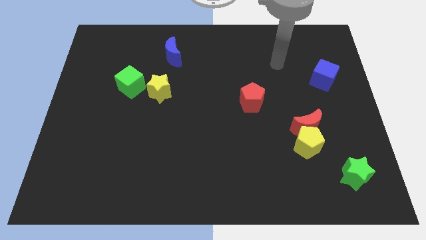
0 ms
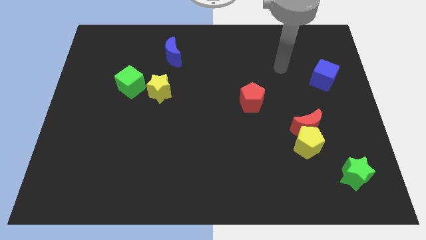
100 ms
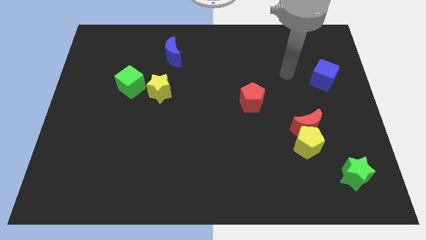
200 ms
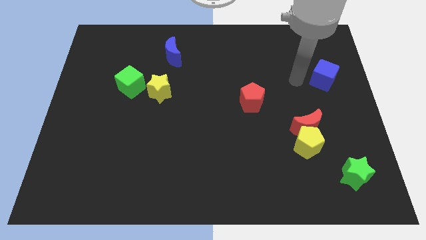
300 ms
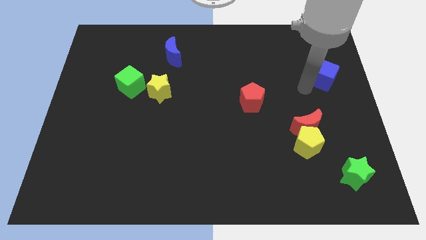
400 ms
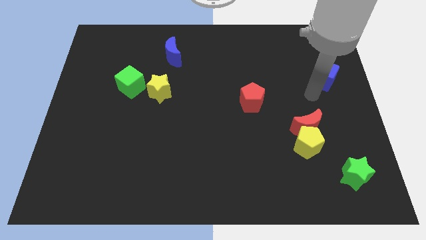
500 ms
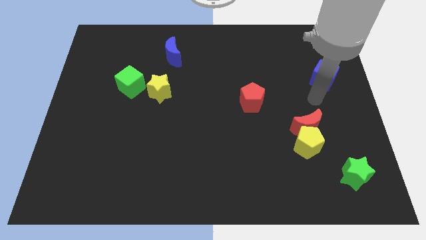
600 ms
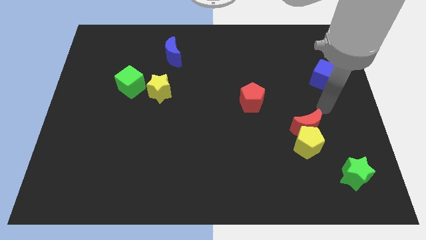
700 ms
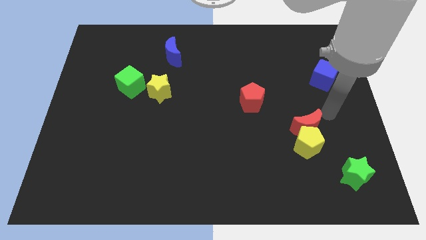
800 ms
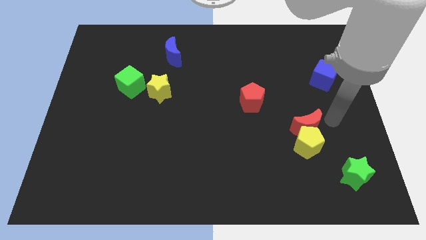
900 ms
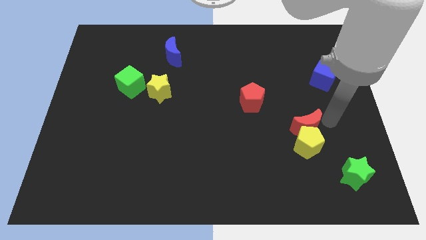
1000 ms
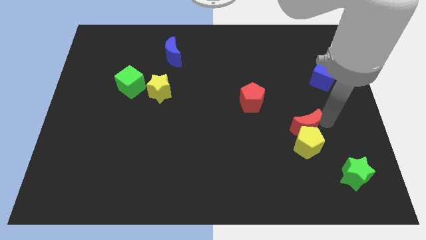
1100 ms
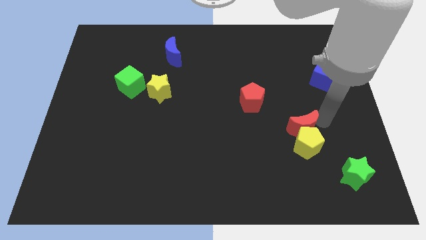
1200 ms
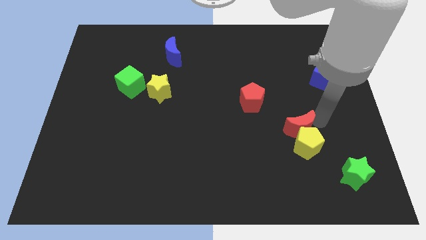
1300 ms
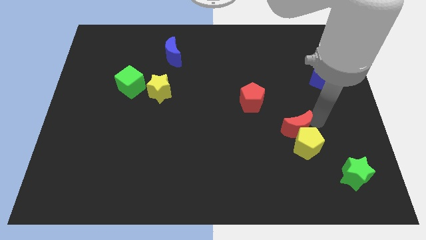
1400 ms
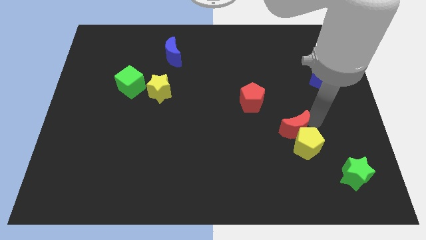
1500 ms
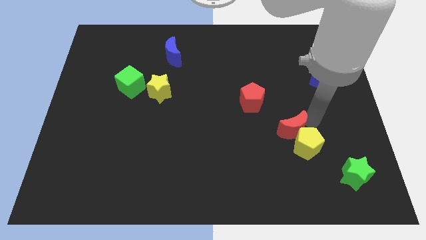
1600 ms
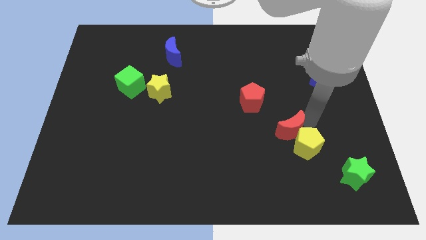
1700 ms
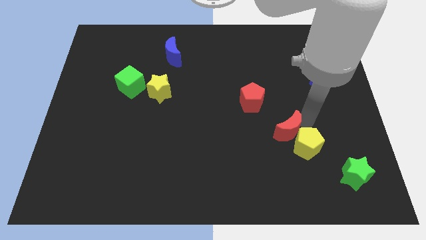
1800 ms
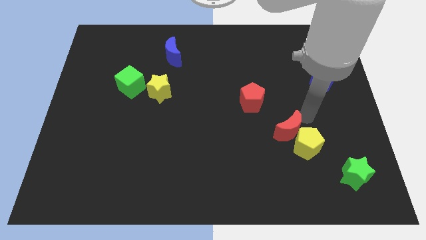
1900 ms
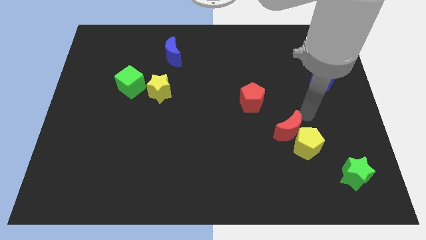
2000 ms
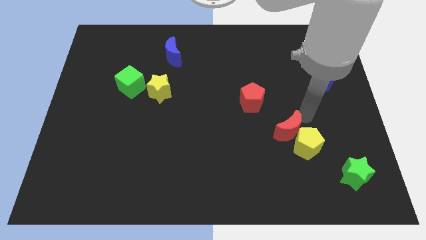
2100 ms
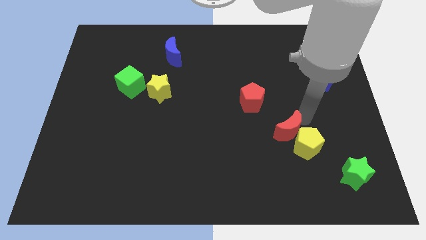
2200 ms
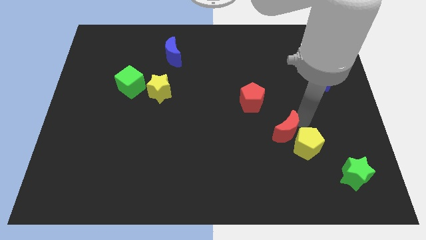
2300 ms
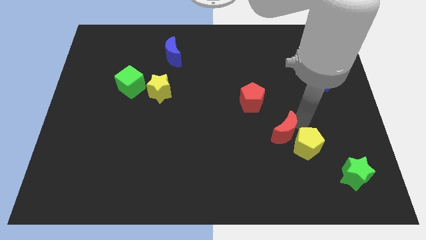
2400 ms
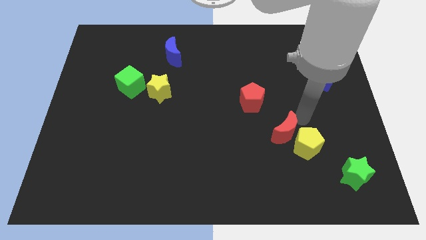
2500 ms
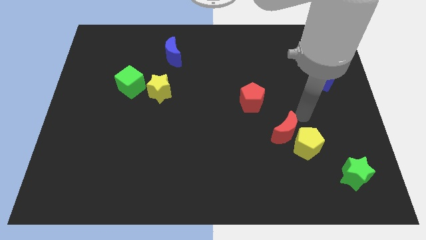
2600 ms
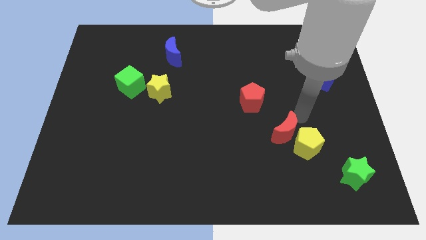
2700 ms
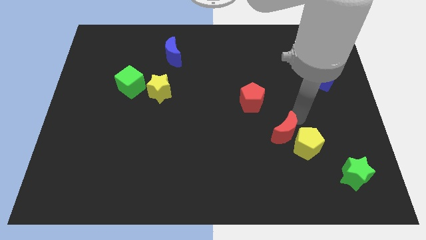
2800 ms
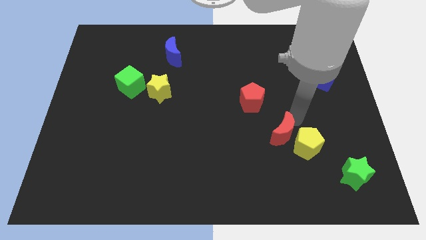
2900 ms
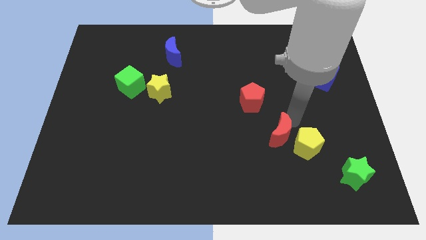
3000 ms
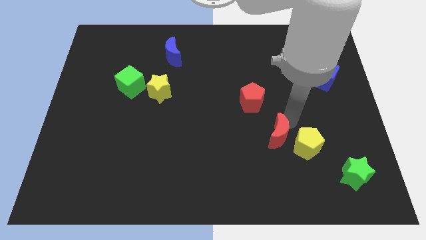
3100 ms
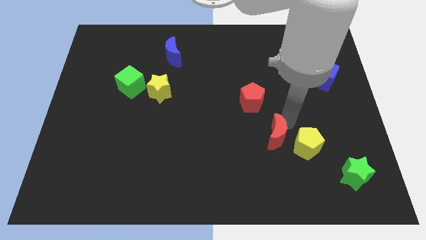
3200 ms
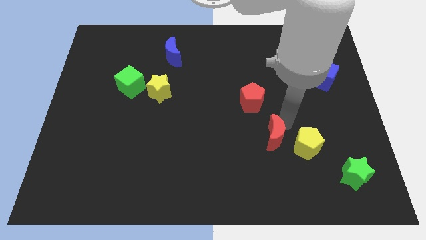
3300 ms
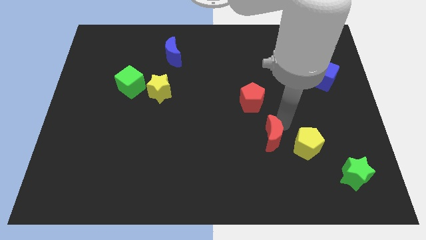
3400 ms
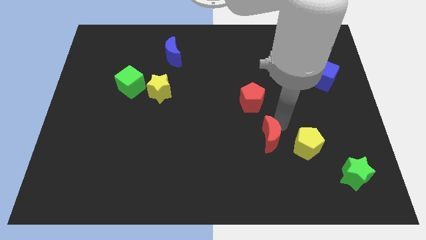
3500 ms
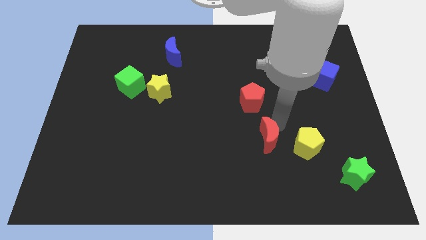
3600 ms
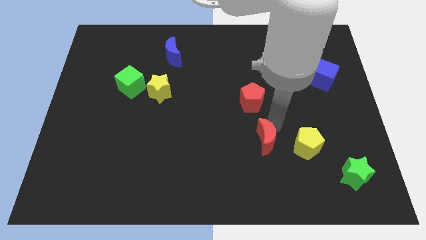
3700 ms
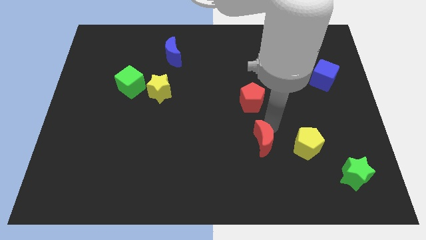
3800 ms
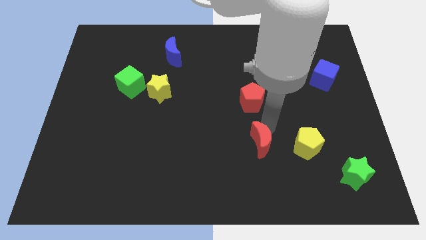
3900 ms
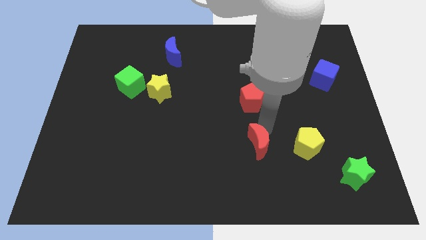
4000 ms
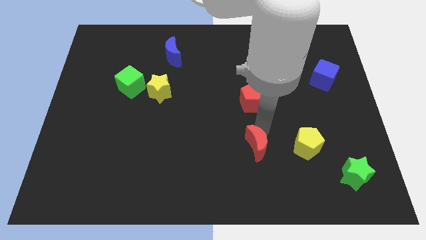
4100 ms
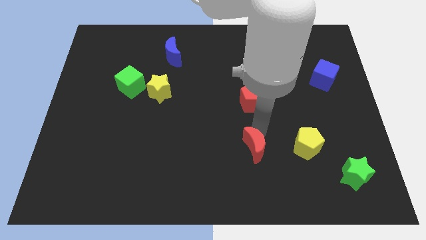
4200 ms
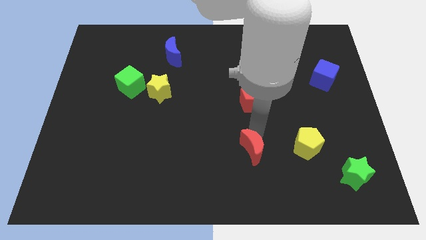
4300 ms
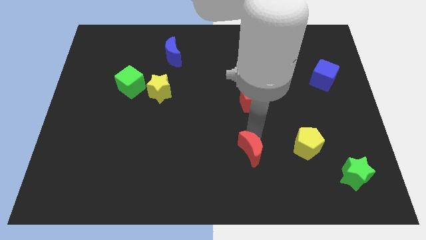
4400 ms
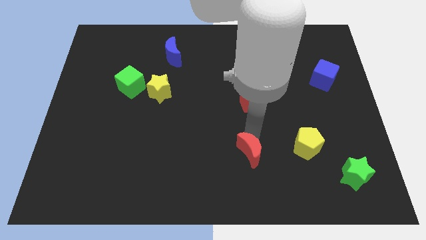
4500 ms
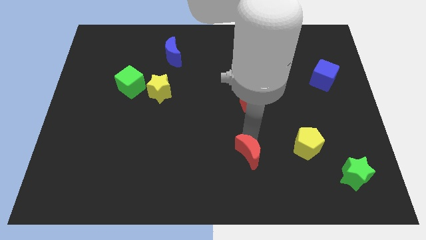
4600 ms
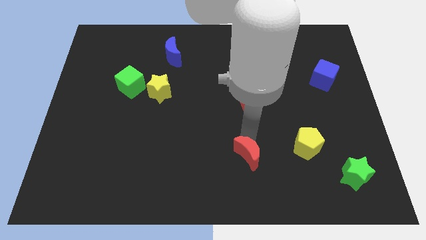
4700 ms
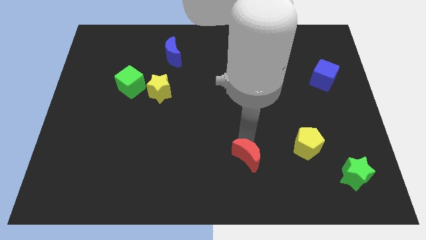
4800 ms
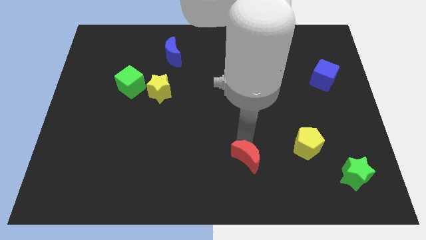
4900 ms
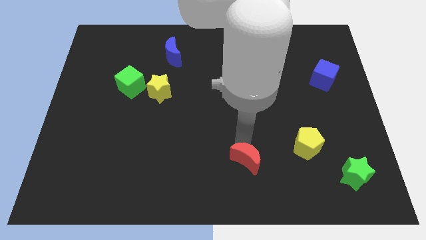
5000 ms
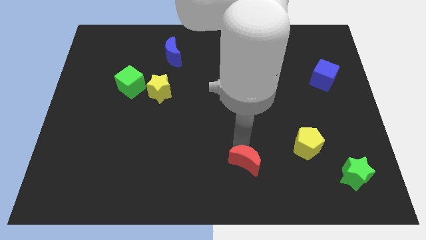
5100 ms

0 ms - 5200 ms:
push the red moon to the bottom side
